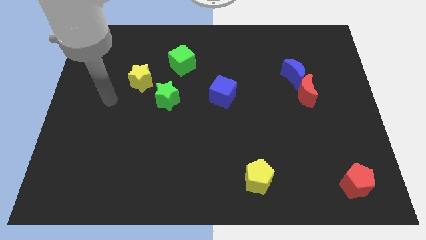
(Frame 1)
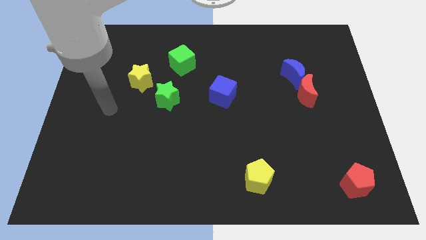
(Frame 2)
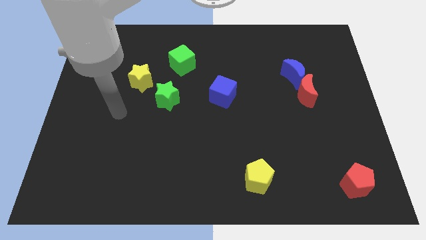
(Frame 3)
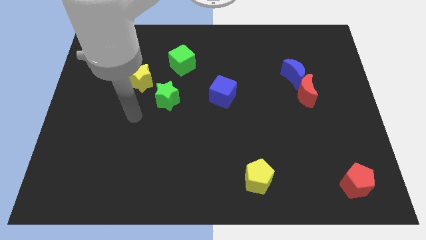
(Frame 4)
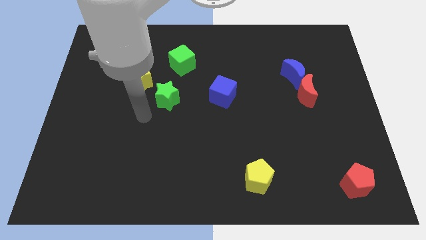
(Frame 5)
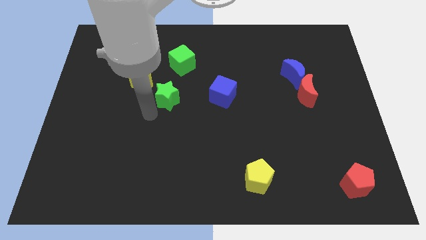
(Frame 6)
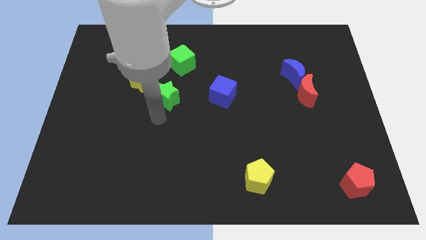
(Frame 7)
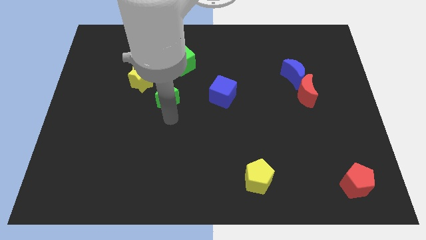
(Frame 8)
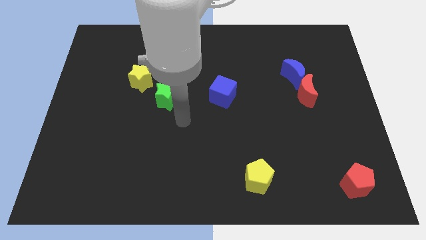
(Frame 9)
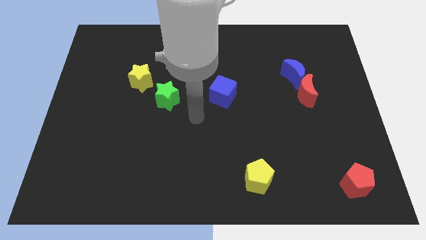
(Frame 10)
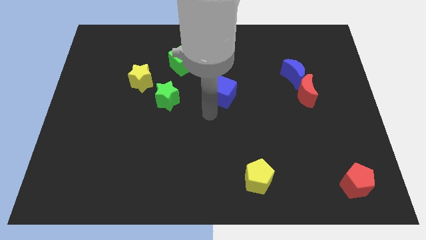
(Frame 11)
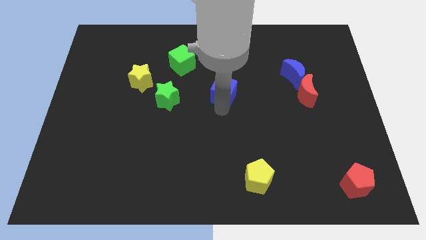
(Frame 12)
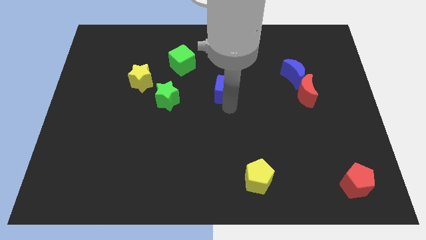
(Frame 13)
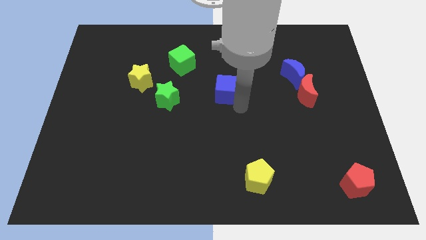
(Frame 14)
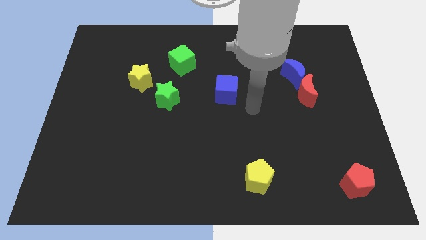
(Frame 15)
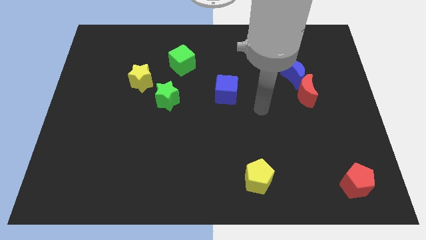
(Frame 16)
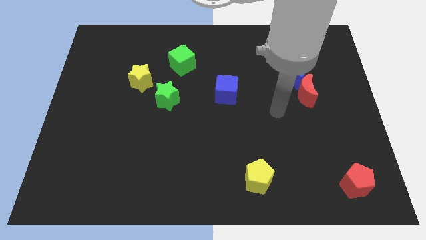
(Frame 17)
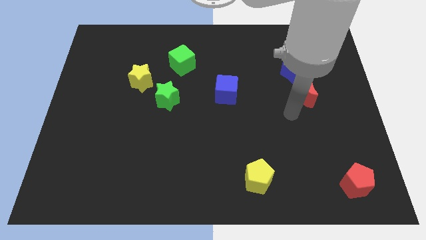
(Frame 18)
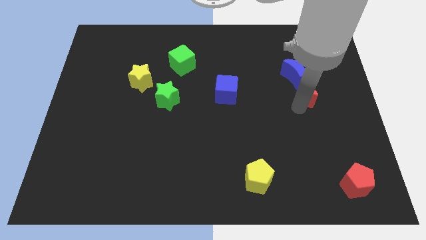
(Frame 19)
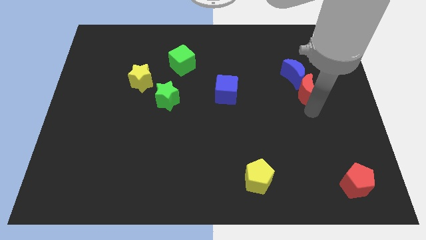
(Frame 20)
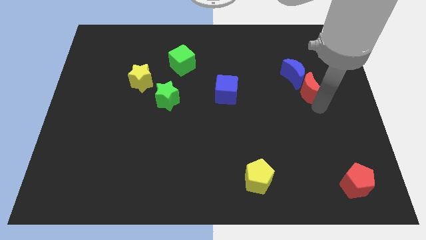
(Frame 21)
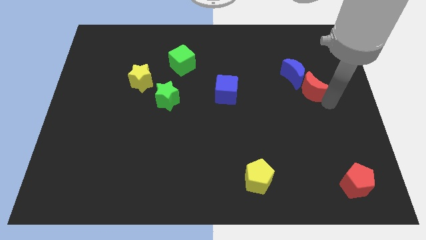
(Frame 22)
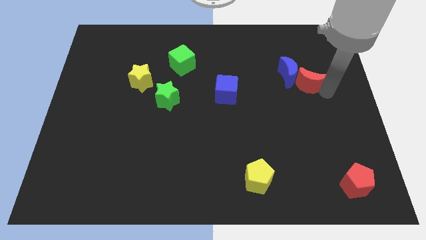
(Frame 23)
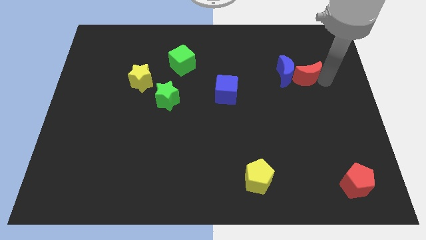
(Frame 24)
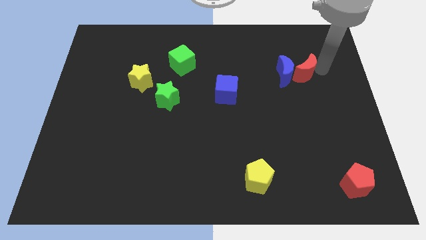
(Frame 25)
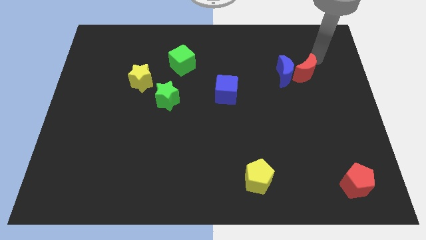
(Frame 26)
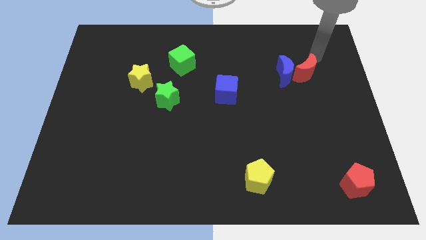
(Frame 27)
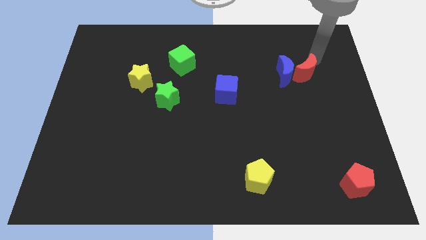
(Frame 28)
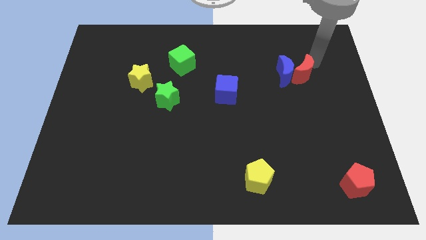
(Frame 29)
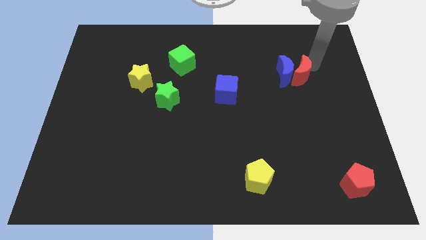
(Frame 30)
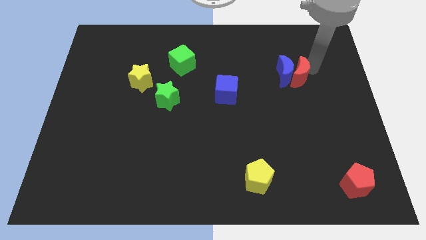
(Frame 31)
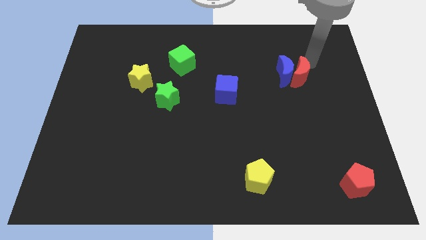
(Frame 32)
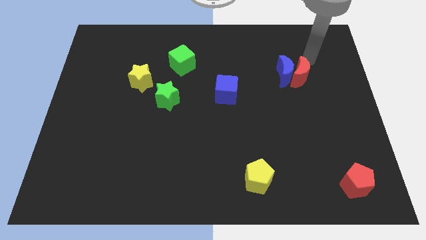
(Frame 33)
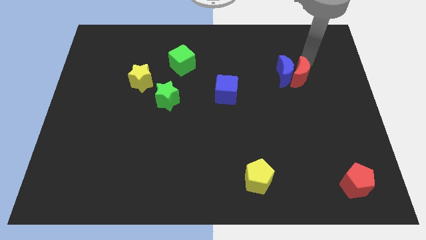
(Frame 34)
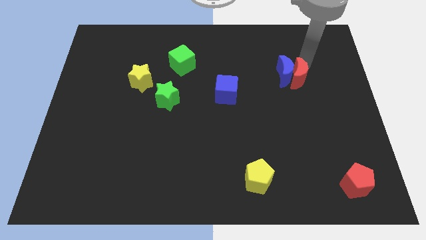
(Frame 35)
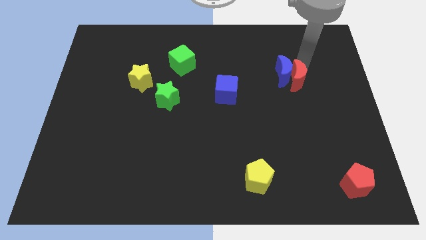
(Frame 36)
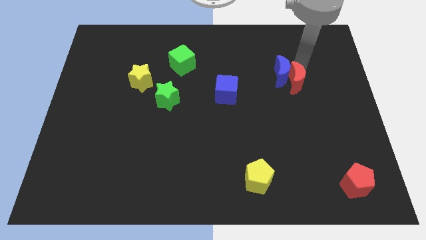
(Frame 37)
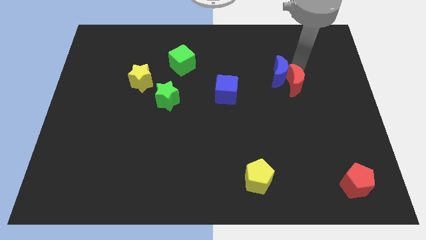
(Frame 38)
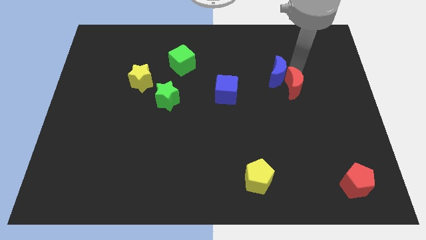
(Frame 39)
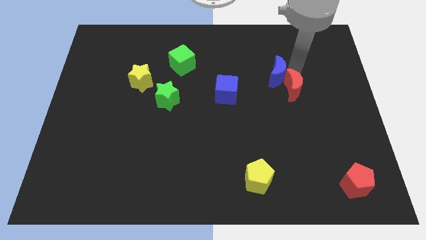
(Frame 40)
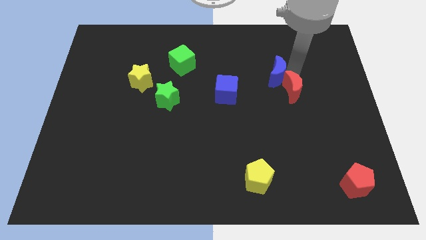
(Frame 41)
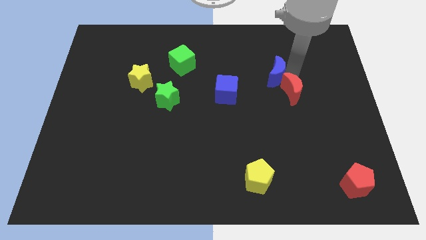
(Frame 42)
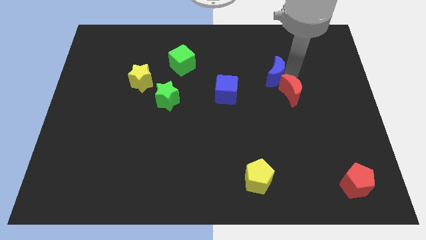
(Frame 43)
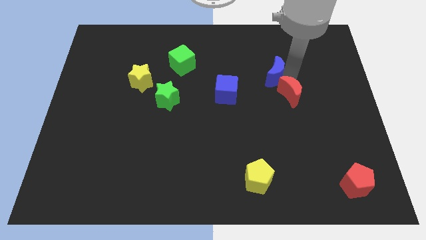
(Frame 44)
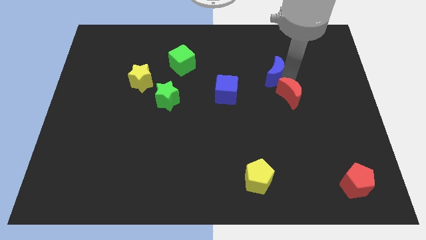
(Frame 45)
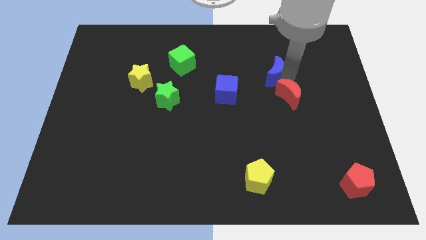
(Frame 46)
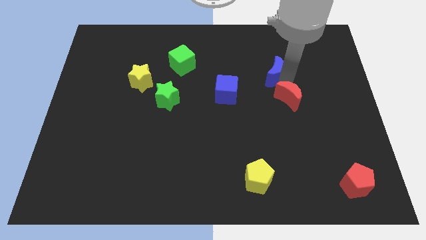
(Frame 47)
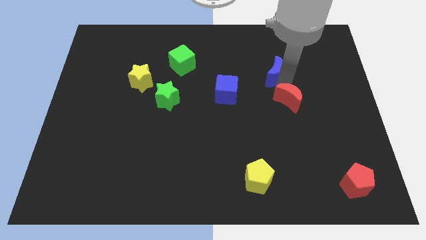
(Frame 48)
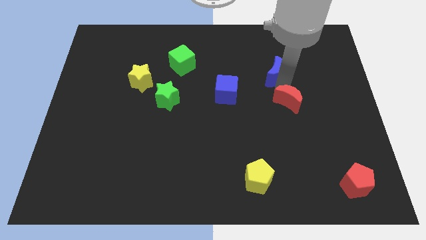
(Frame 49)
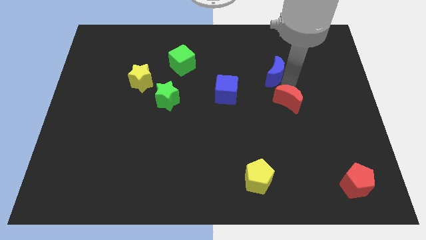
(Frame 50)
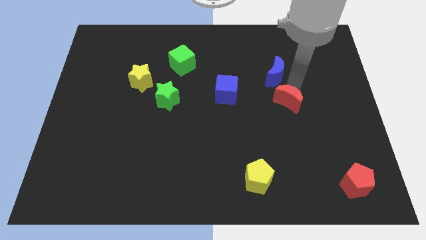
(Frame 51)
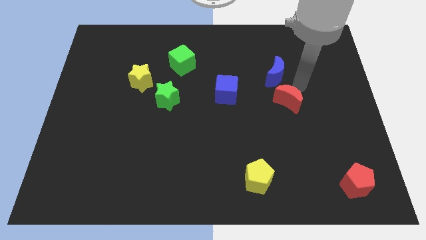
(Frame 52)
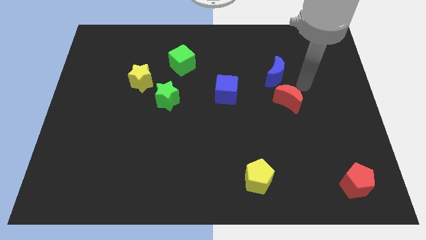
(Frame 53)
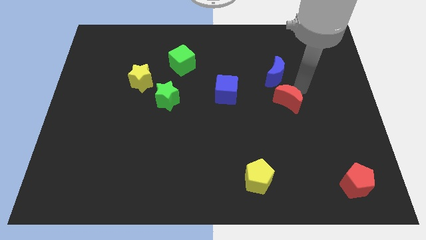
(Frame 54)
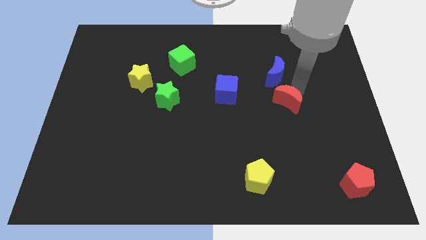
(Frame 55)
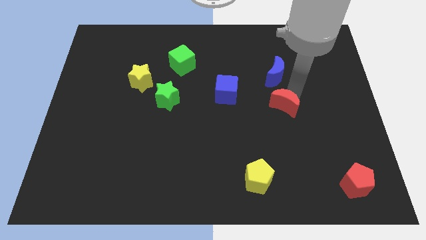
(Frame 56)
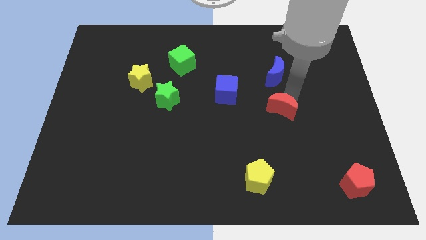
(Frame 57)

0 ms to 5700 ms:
push the red moon a little bit diagonally down and left

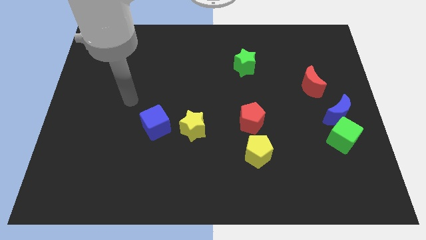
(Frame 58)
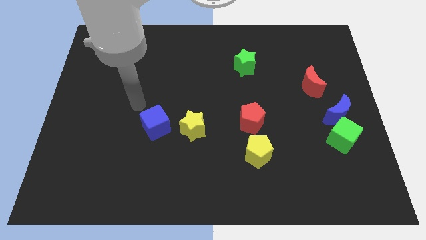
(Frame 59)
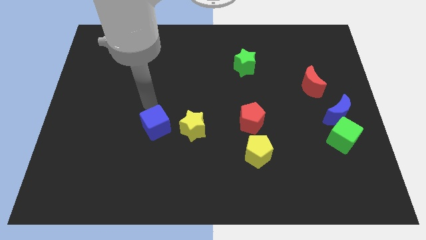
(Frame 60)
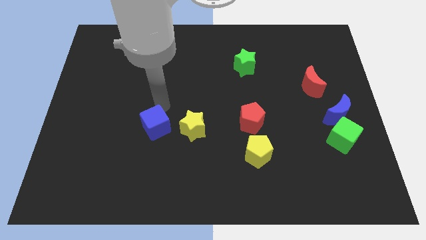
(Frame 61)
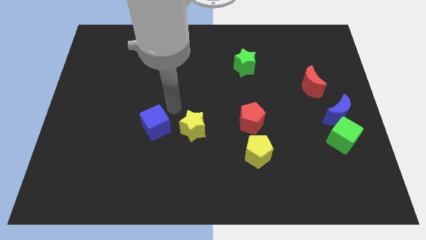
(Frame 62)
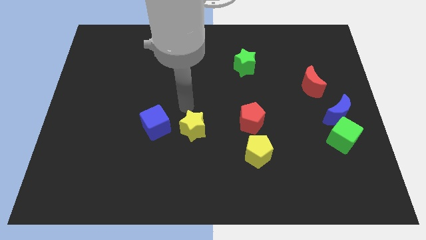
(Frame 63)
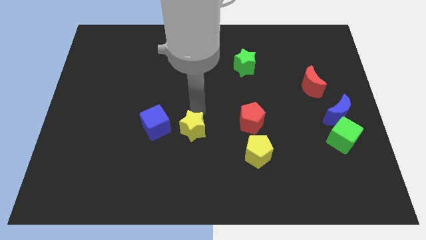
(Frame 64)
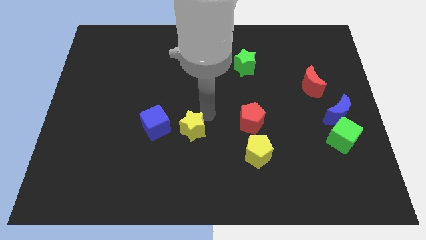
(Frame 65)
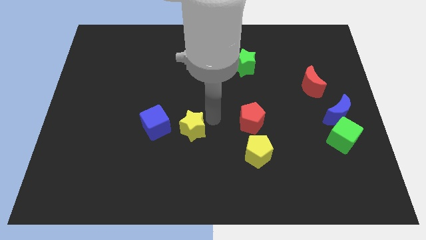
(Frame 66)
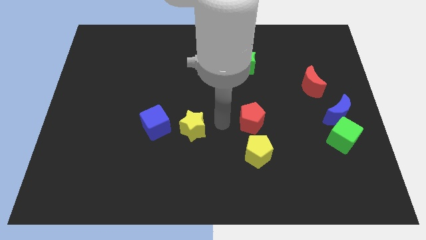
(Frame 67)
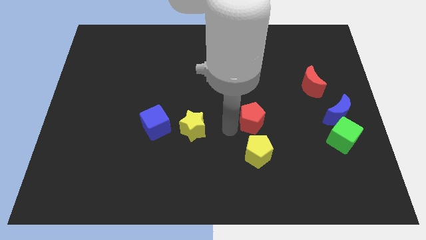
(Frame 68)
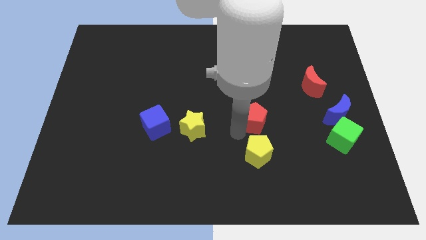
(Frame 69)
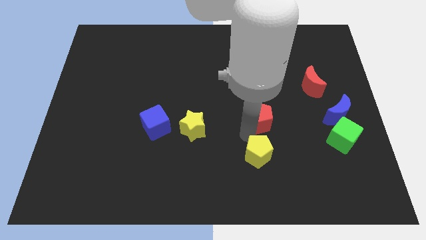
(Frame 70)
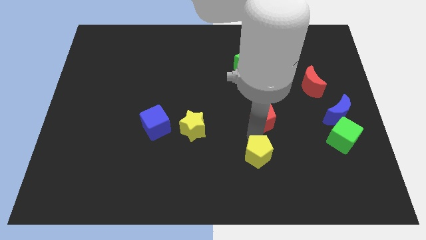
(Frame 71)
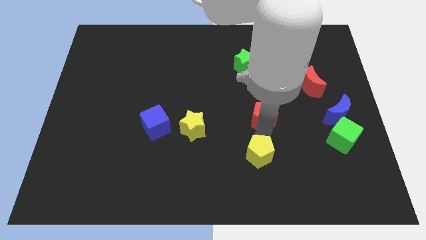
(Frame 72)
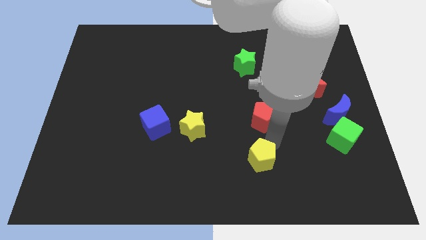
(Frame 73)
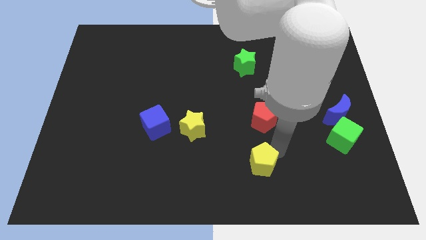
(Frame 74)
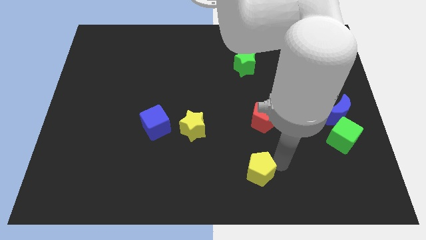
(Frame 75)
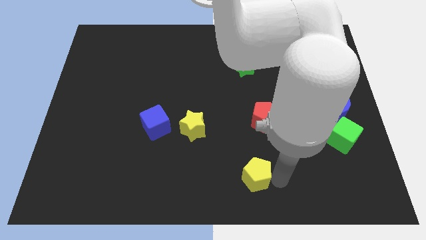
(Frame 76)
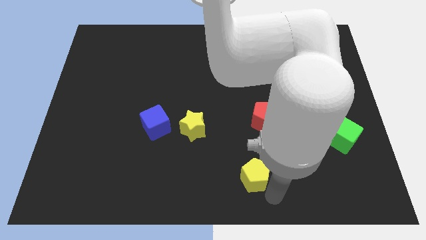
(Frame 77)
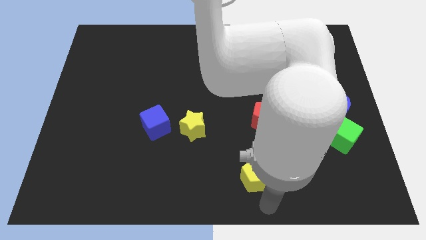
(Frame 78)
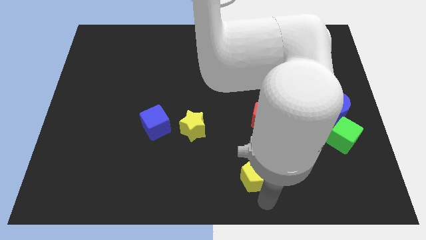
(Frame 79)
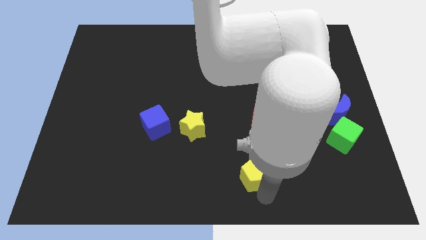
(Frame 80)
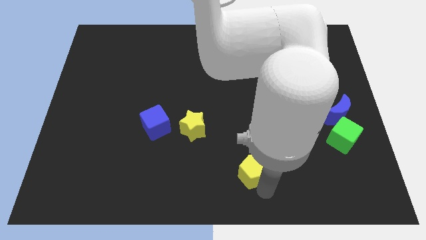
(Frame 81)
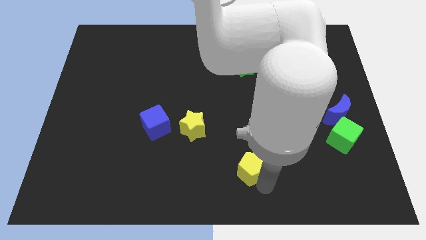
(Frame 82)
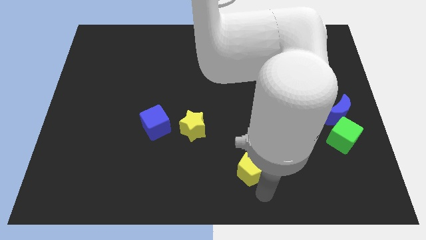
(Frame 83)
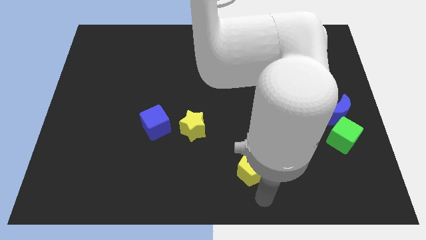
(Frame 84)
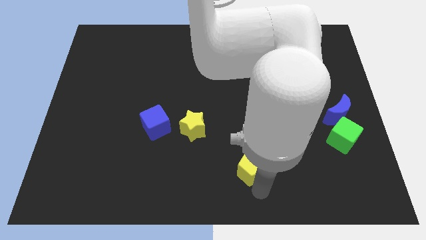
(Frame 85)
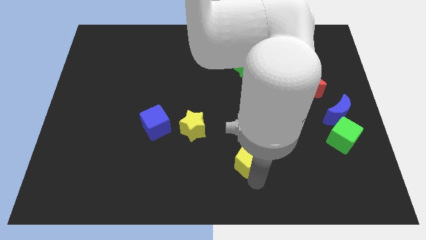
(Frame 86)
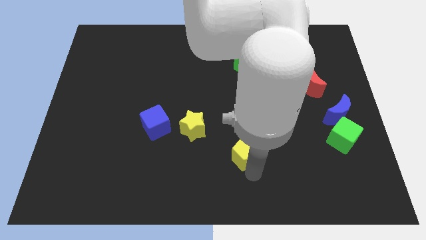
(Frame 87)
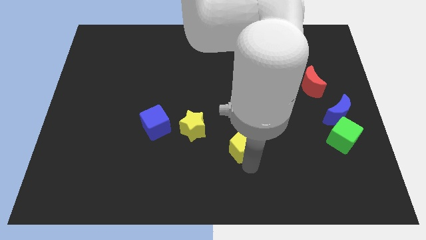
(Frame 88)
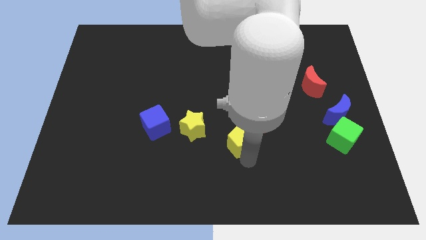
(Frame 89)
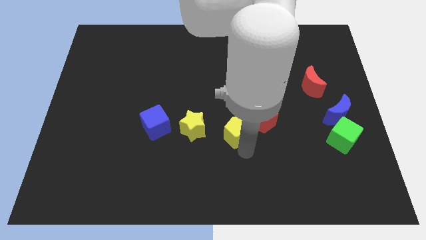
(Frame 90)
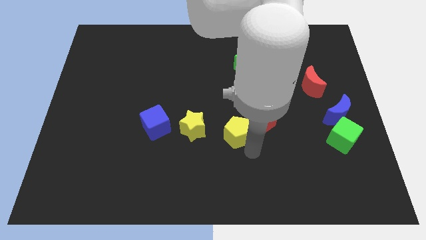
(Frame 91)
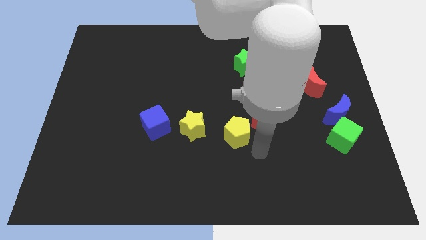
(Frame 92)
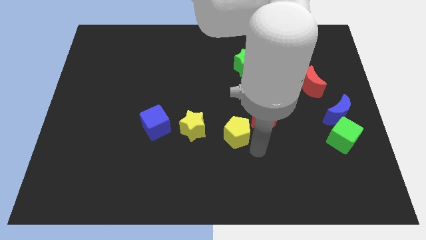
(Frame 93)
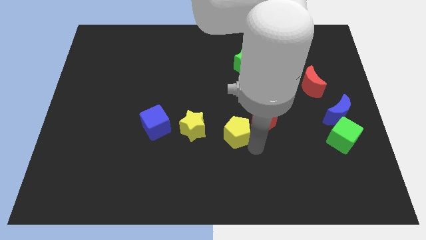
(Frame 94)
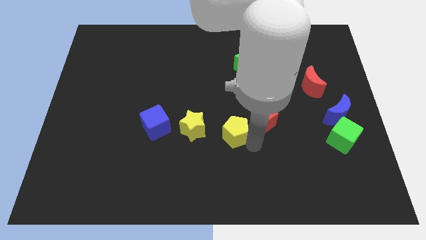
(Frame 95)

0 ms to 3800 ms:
push the yellow pentagon somewhat up and then to the left
